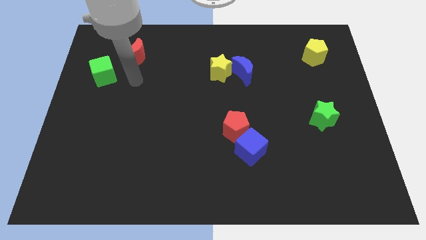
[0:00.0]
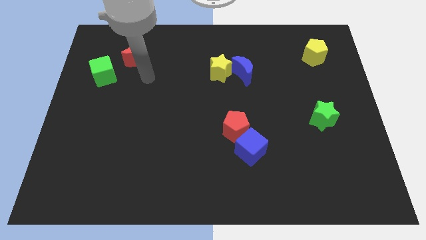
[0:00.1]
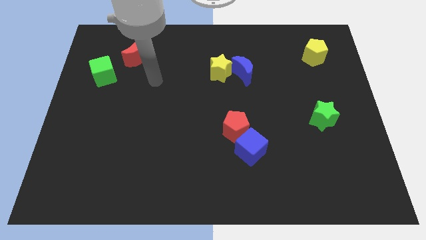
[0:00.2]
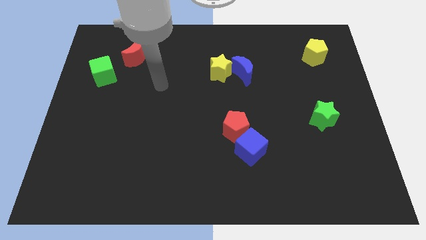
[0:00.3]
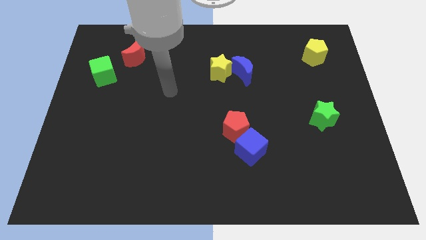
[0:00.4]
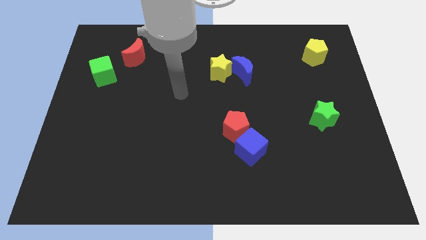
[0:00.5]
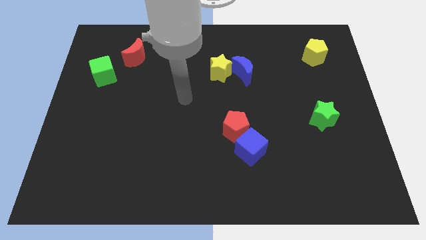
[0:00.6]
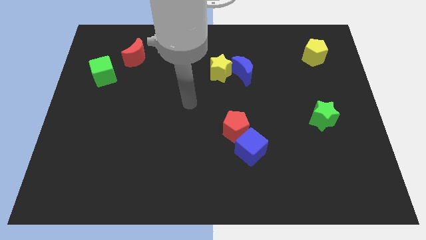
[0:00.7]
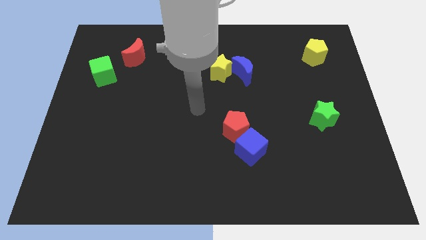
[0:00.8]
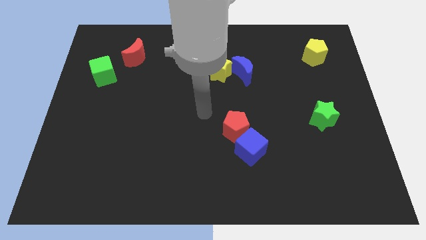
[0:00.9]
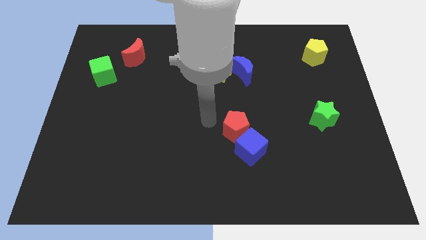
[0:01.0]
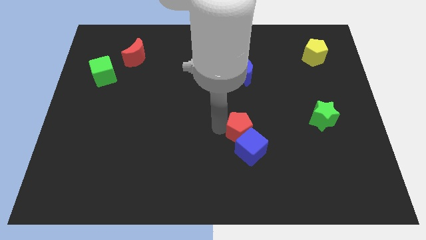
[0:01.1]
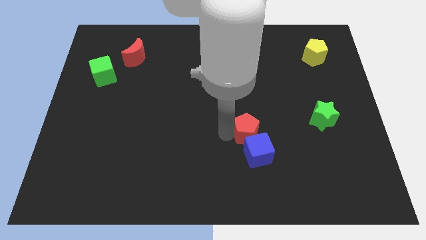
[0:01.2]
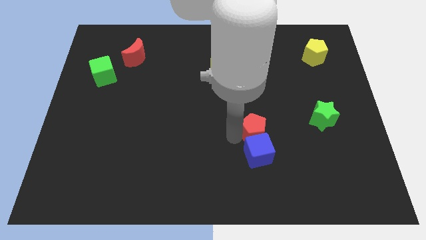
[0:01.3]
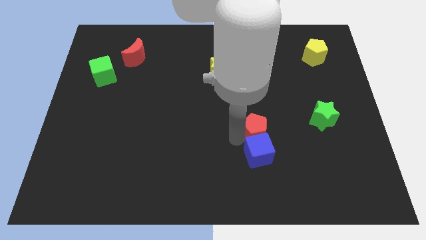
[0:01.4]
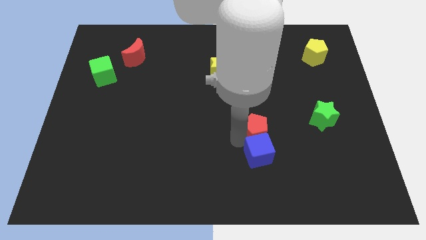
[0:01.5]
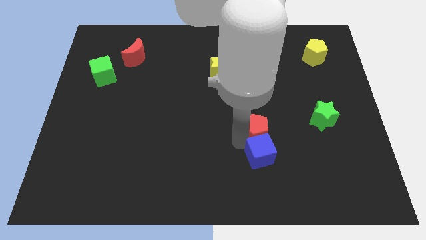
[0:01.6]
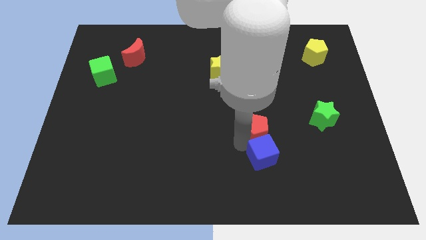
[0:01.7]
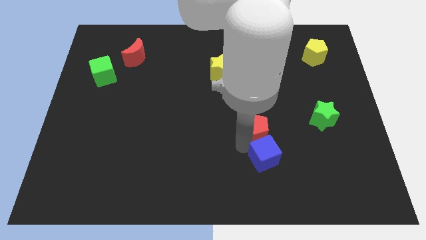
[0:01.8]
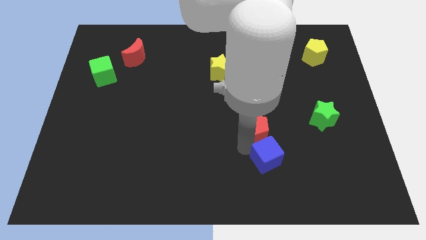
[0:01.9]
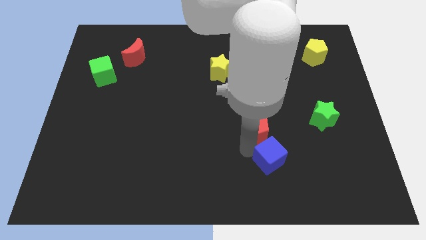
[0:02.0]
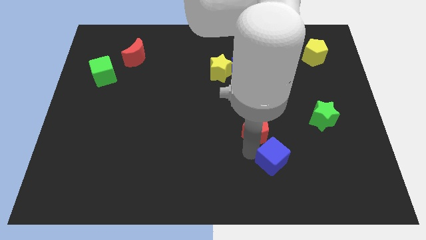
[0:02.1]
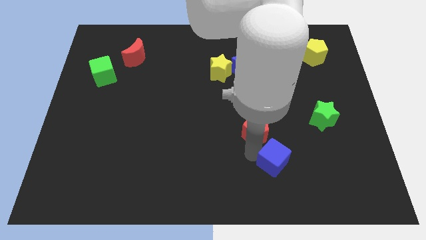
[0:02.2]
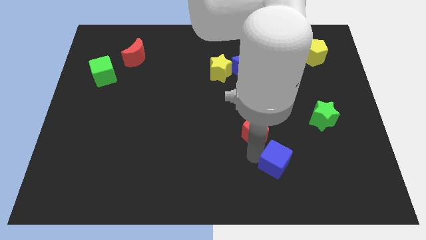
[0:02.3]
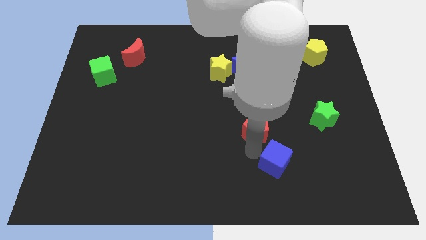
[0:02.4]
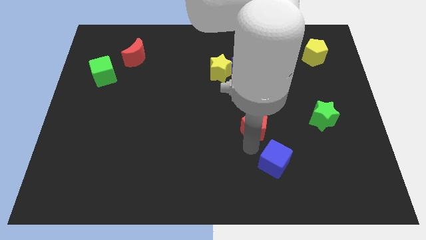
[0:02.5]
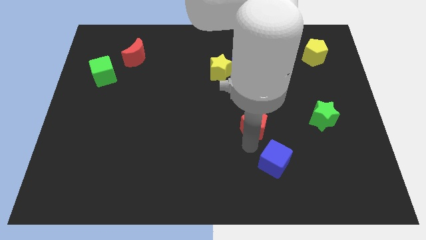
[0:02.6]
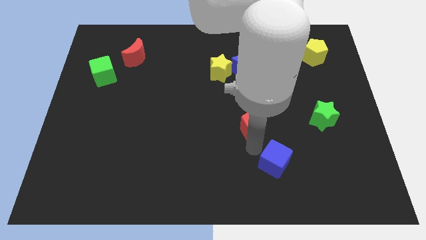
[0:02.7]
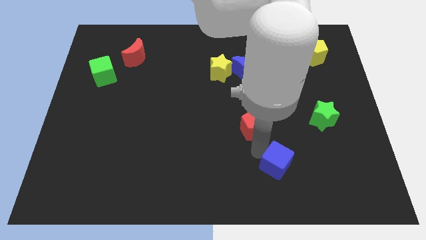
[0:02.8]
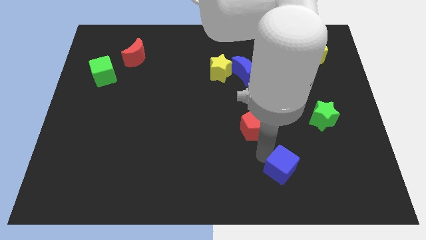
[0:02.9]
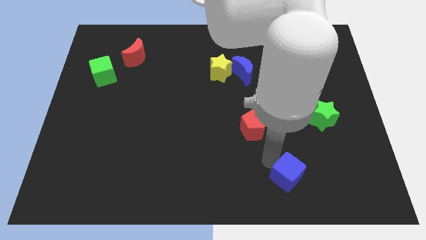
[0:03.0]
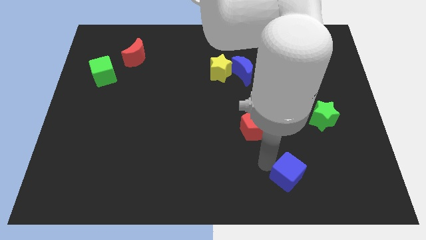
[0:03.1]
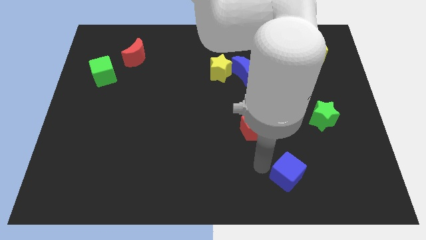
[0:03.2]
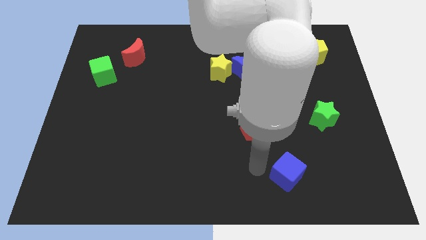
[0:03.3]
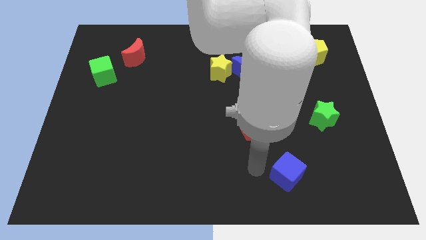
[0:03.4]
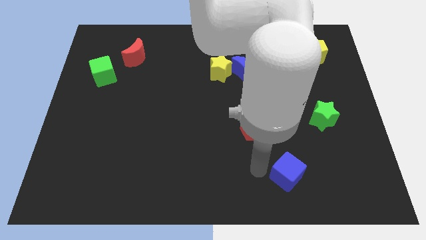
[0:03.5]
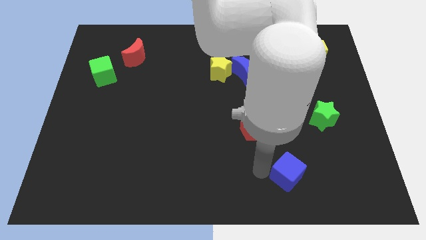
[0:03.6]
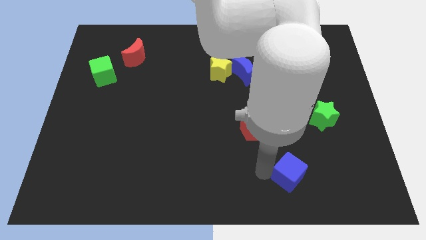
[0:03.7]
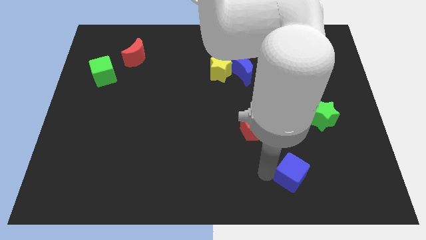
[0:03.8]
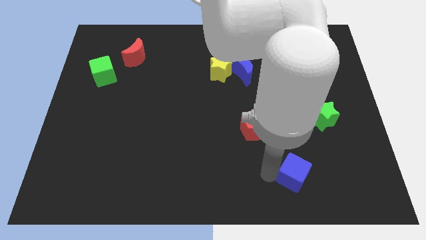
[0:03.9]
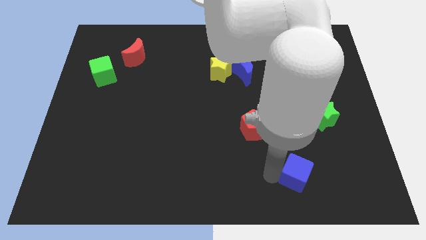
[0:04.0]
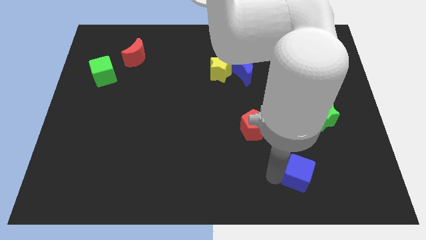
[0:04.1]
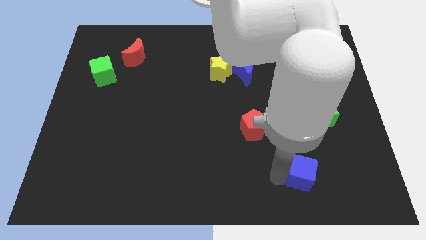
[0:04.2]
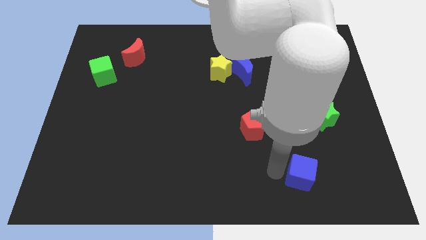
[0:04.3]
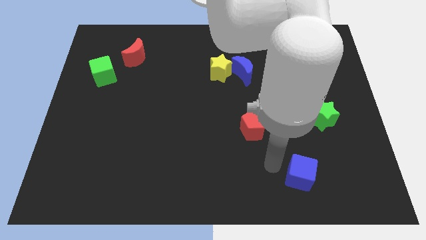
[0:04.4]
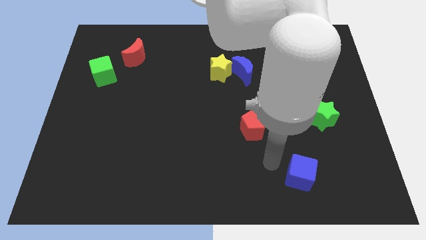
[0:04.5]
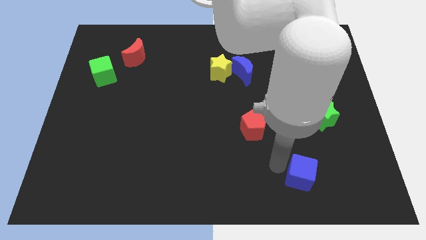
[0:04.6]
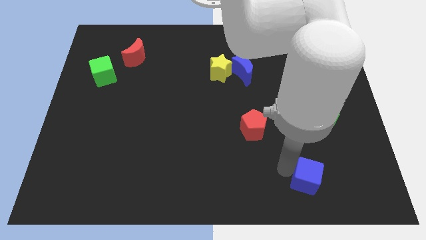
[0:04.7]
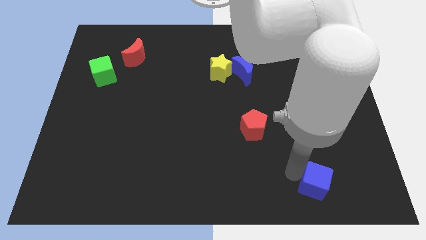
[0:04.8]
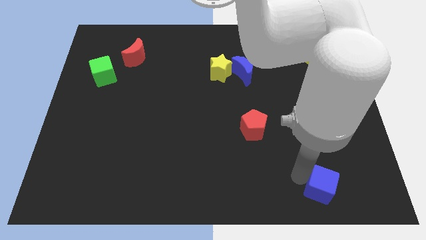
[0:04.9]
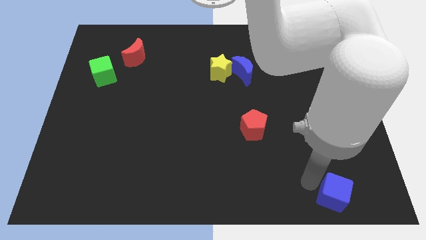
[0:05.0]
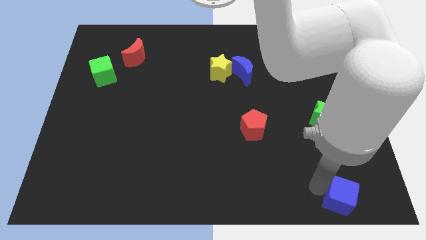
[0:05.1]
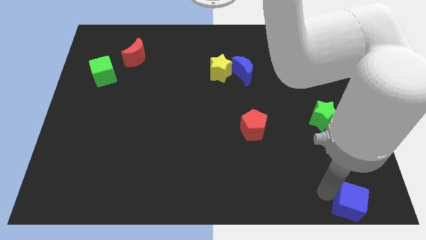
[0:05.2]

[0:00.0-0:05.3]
slide the blue cube to the lower right corner

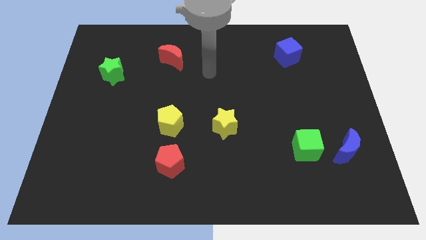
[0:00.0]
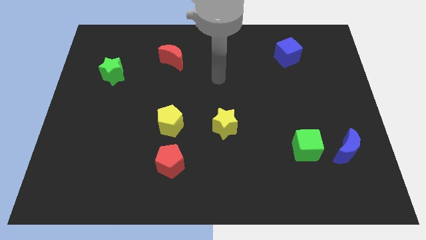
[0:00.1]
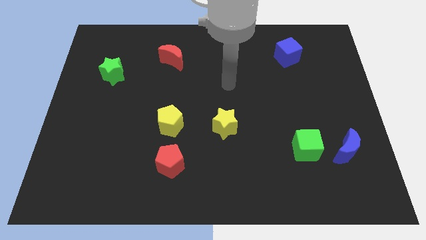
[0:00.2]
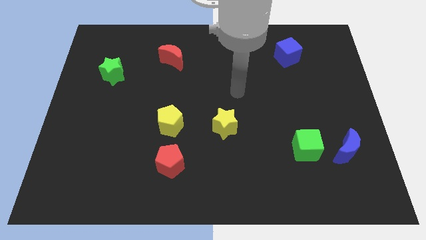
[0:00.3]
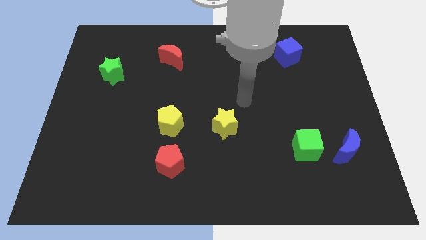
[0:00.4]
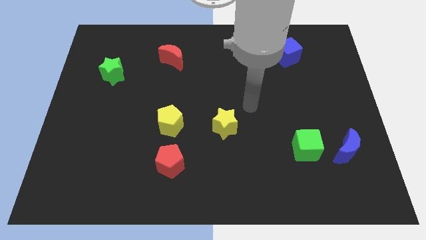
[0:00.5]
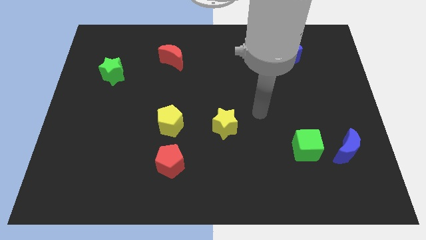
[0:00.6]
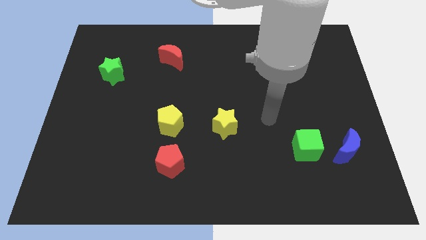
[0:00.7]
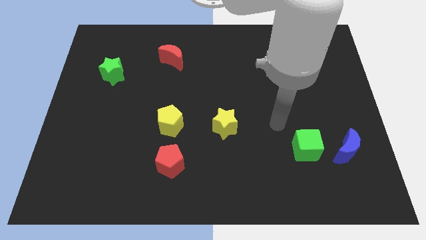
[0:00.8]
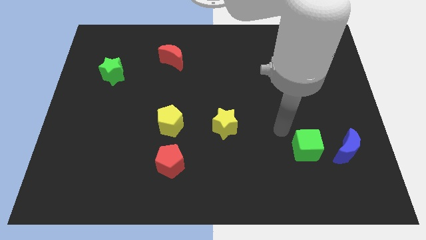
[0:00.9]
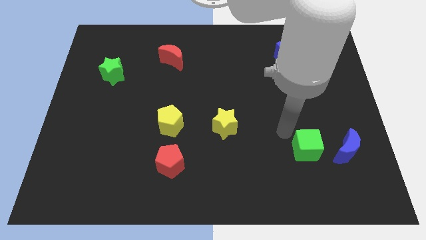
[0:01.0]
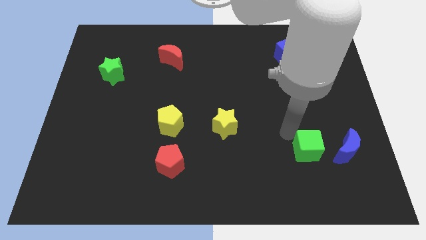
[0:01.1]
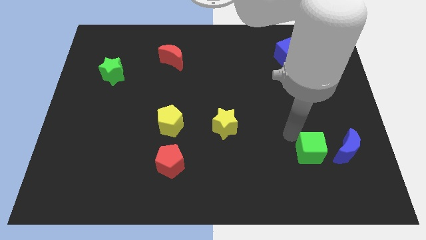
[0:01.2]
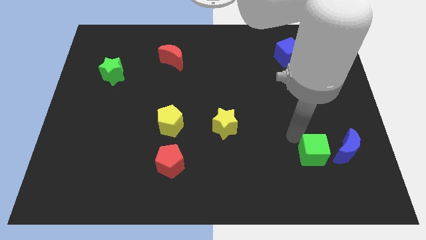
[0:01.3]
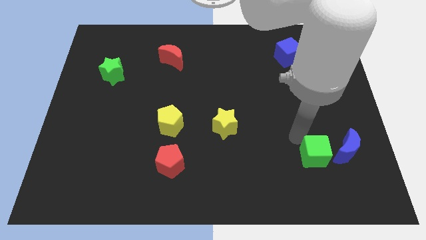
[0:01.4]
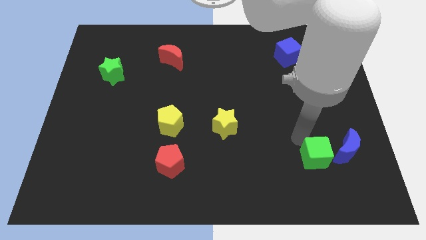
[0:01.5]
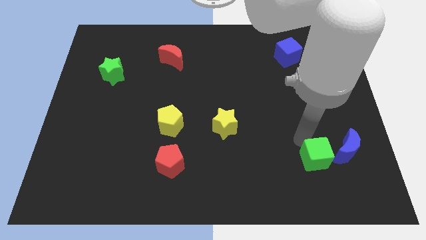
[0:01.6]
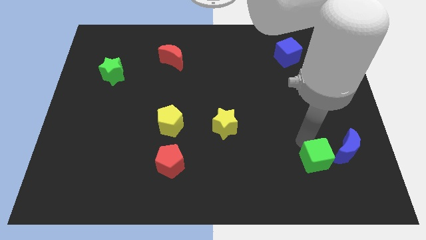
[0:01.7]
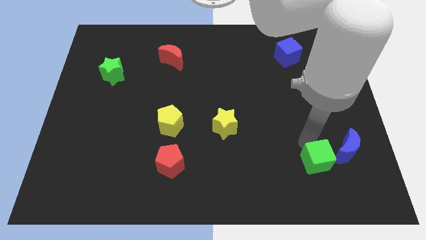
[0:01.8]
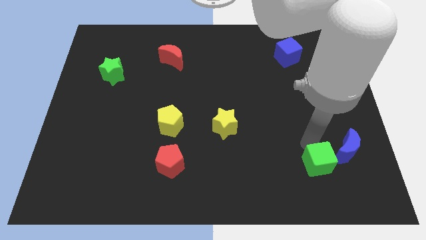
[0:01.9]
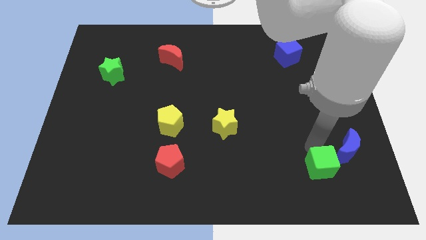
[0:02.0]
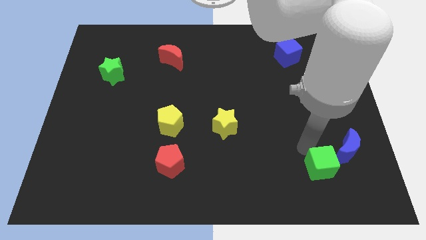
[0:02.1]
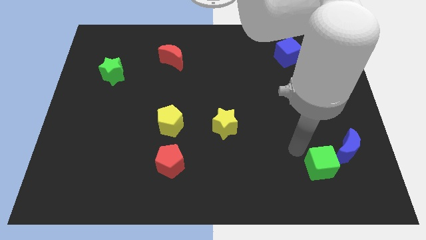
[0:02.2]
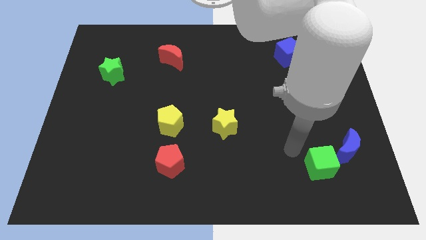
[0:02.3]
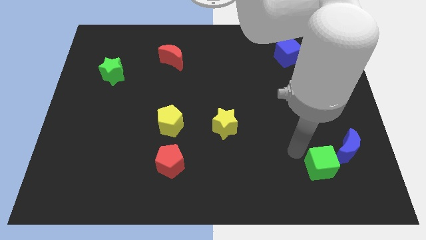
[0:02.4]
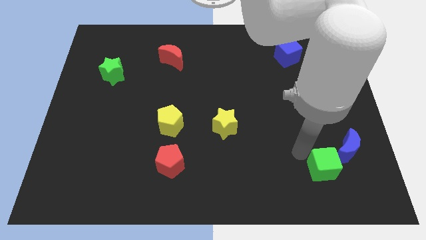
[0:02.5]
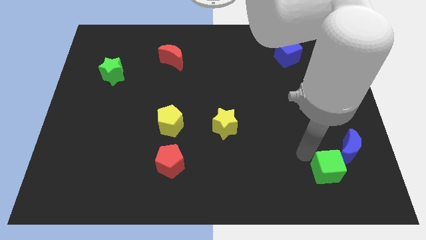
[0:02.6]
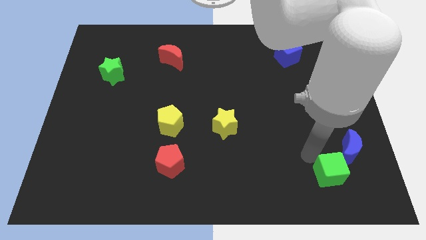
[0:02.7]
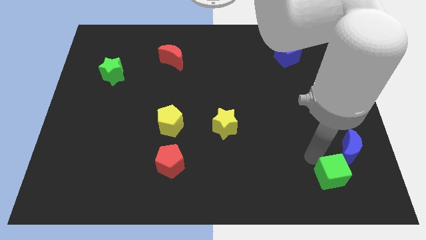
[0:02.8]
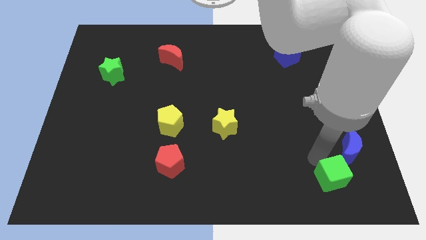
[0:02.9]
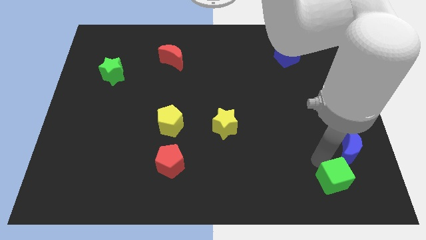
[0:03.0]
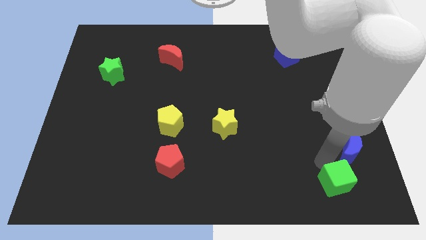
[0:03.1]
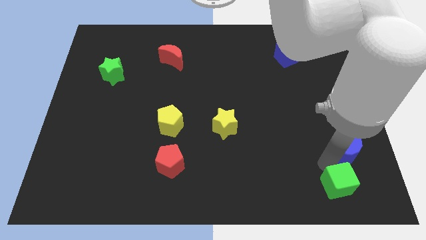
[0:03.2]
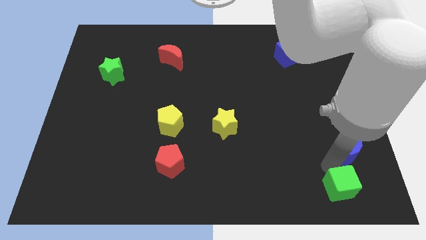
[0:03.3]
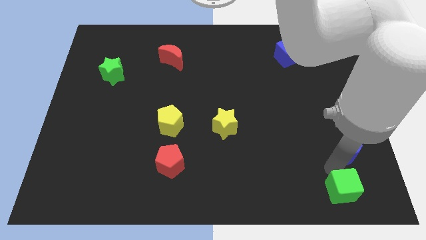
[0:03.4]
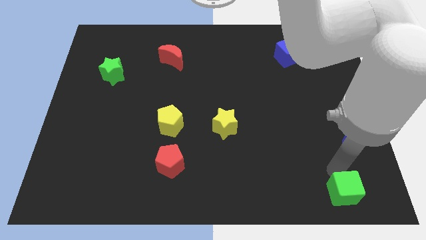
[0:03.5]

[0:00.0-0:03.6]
push the green cube to the bottom right
